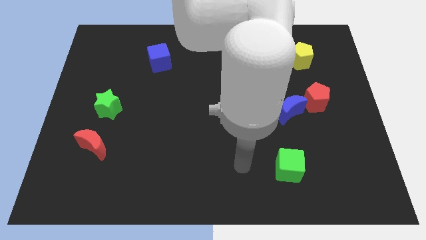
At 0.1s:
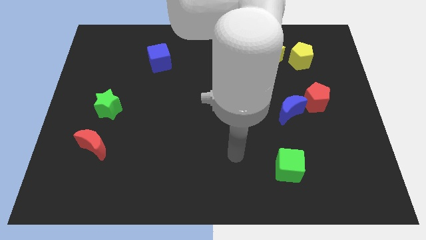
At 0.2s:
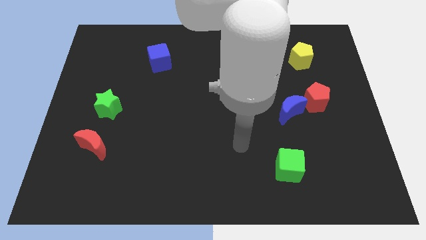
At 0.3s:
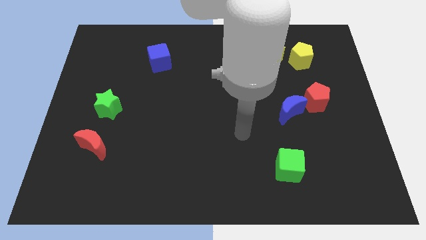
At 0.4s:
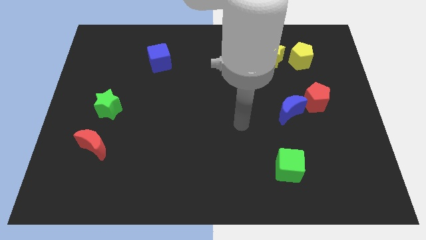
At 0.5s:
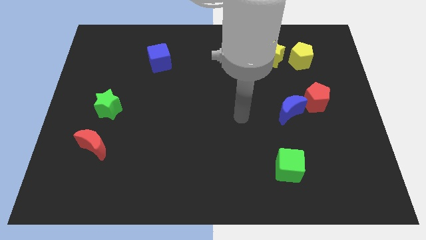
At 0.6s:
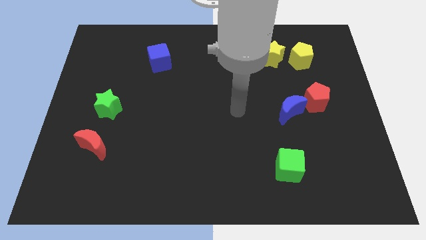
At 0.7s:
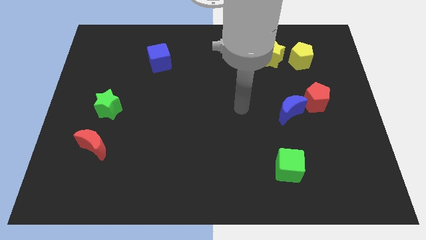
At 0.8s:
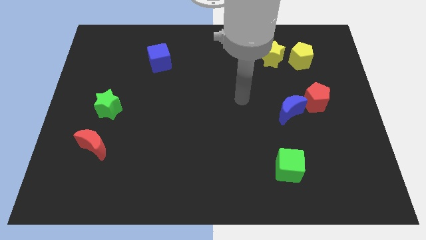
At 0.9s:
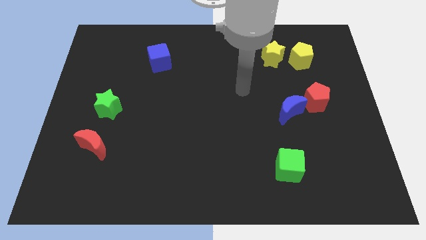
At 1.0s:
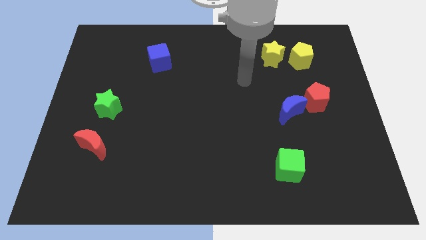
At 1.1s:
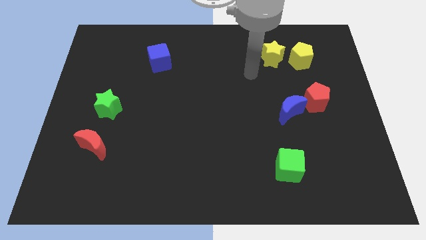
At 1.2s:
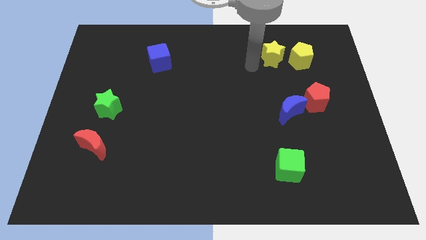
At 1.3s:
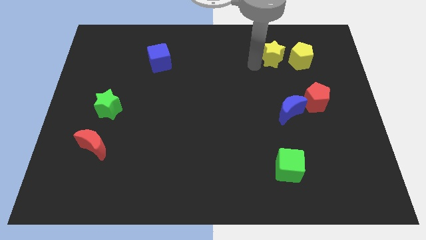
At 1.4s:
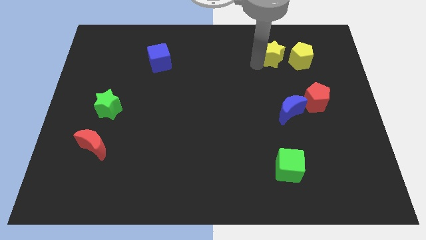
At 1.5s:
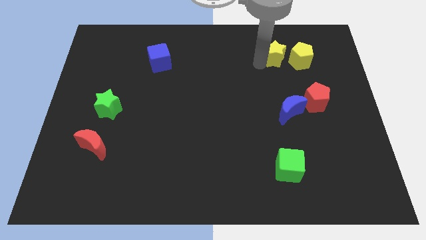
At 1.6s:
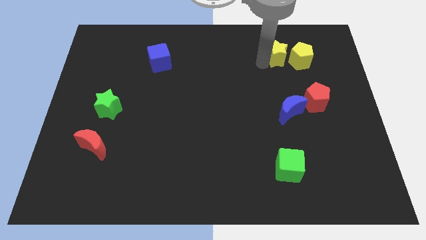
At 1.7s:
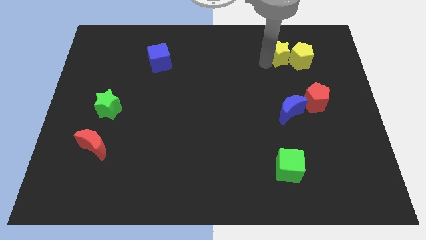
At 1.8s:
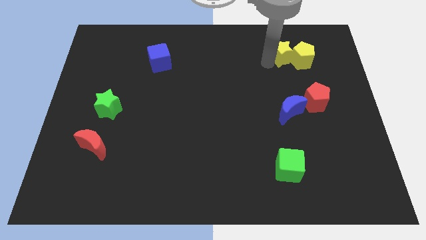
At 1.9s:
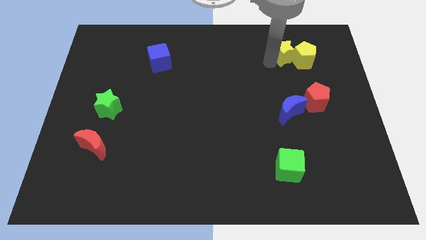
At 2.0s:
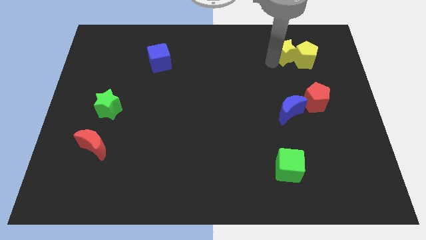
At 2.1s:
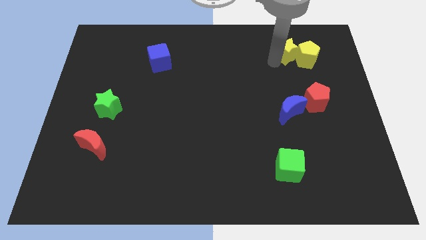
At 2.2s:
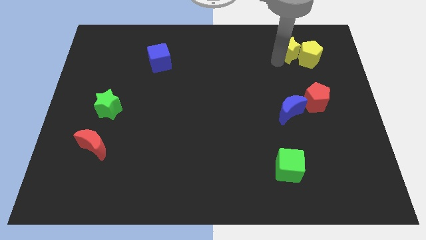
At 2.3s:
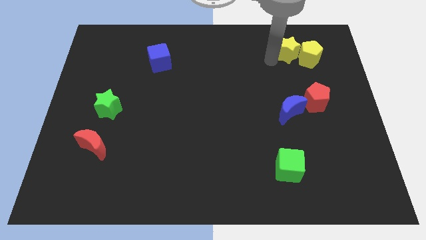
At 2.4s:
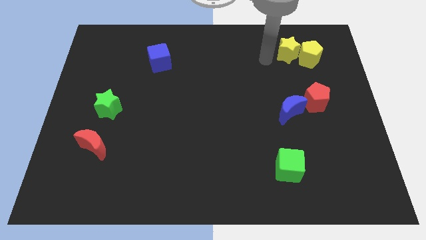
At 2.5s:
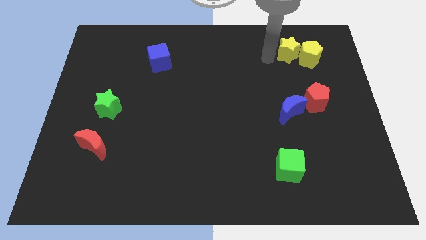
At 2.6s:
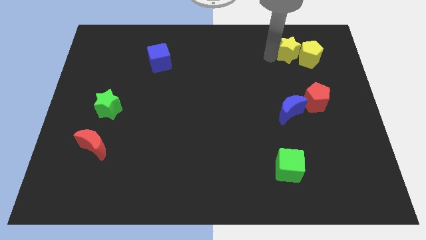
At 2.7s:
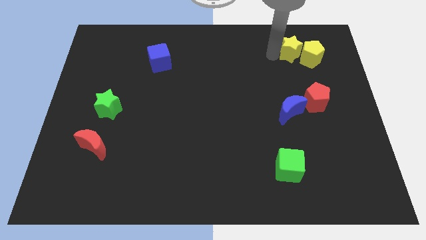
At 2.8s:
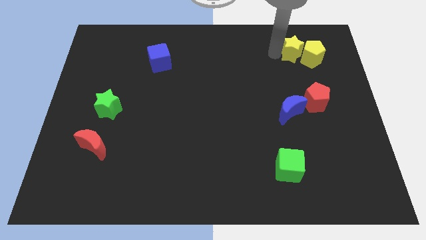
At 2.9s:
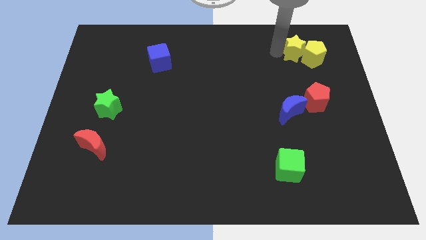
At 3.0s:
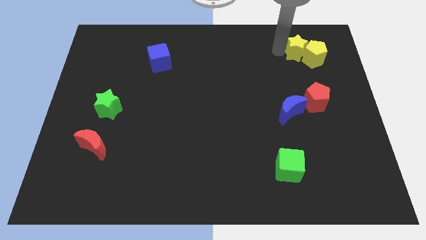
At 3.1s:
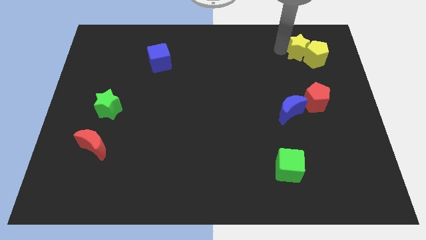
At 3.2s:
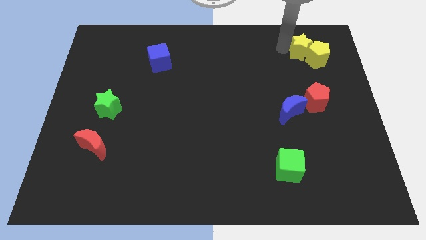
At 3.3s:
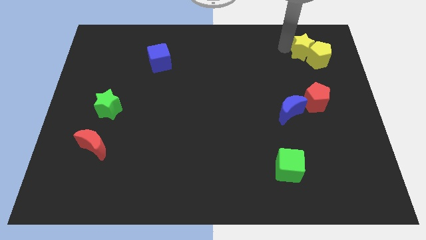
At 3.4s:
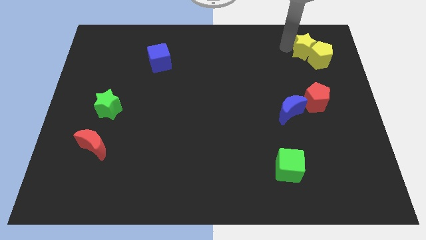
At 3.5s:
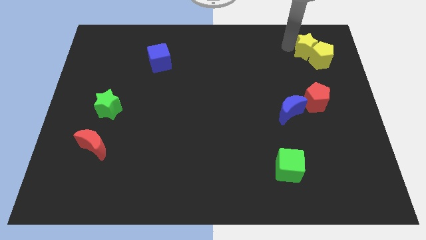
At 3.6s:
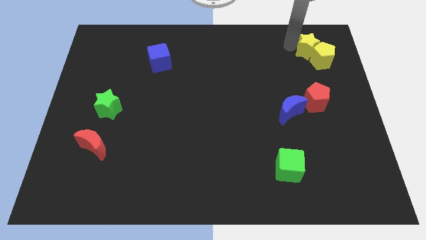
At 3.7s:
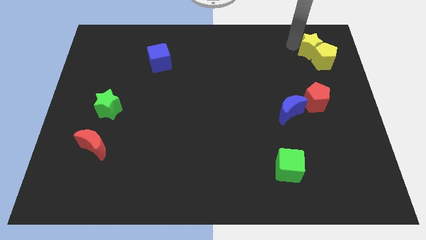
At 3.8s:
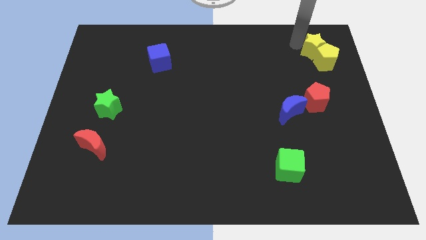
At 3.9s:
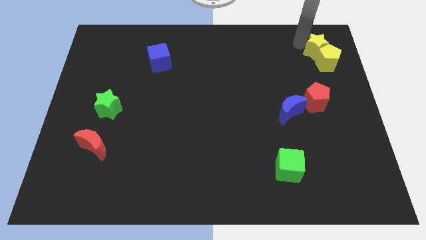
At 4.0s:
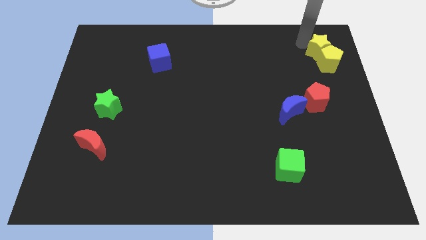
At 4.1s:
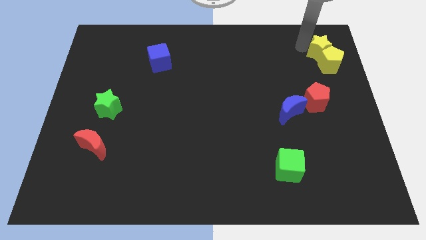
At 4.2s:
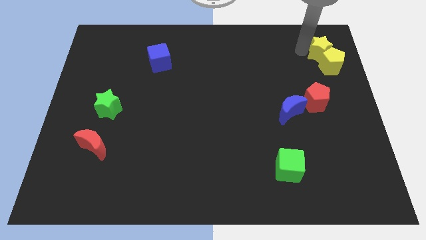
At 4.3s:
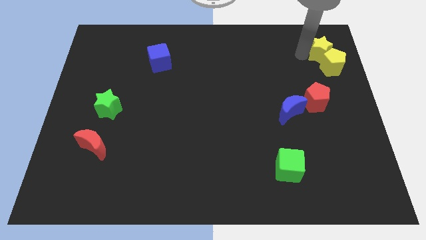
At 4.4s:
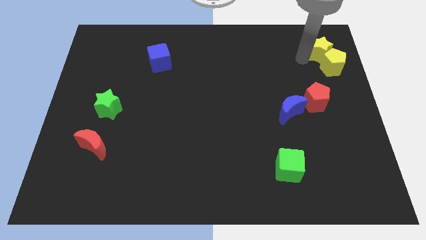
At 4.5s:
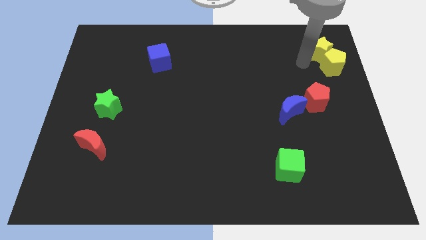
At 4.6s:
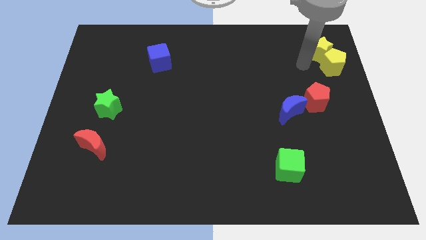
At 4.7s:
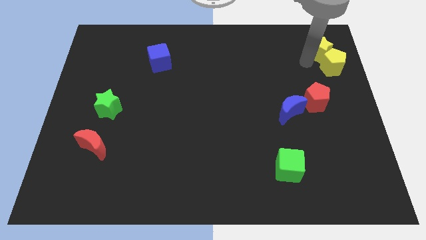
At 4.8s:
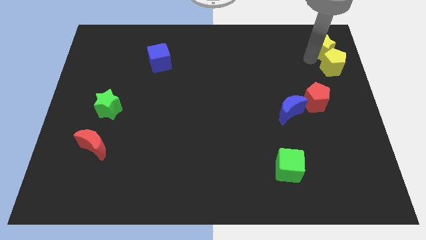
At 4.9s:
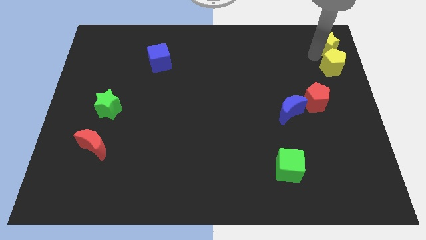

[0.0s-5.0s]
push the yellow star to the top right corner

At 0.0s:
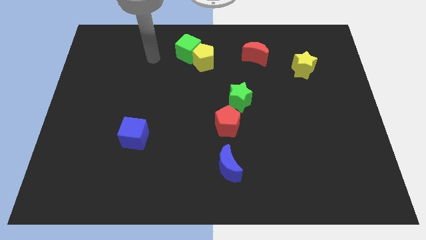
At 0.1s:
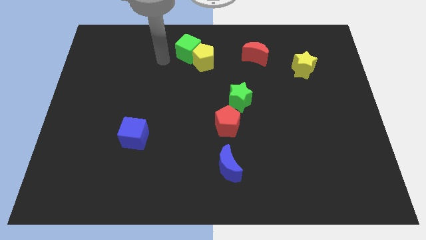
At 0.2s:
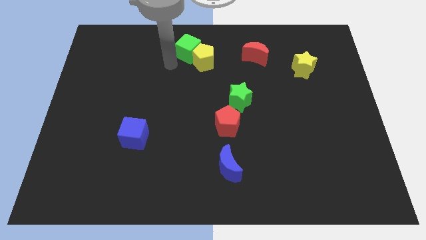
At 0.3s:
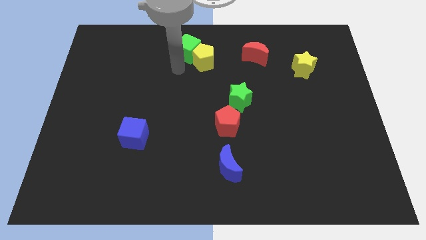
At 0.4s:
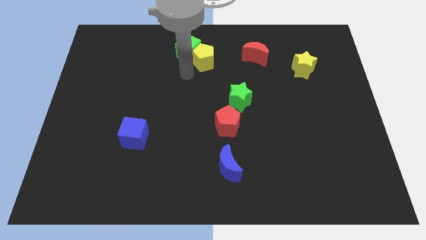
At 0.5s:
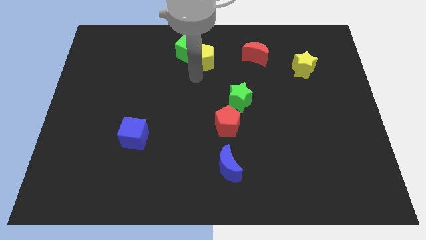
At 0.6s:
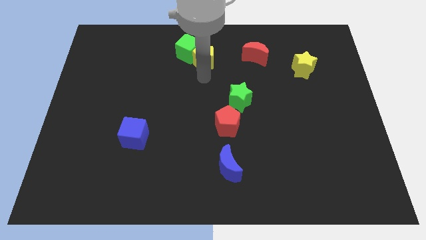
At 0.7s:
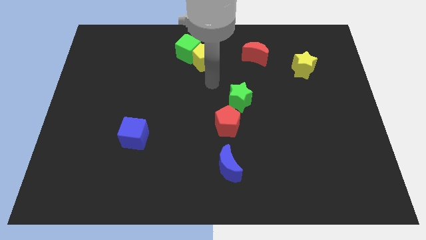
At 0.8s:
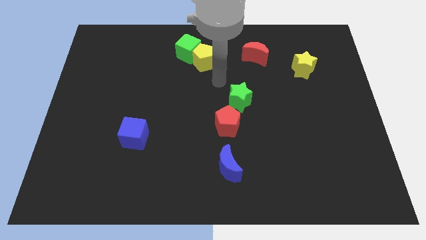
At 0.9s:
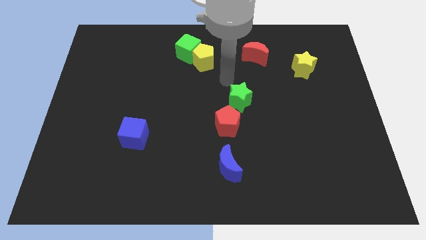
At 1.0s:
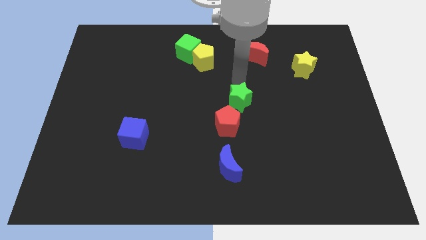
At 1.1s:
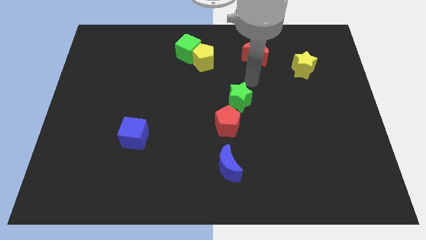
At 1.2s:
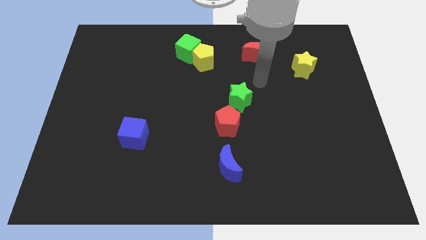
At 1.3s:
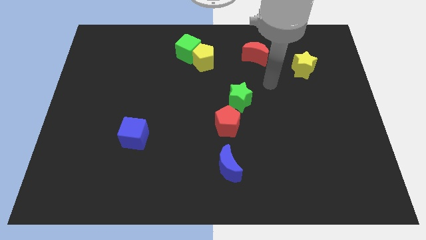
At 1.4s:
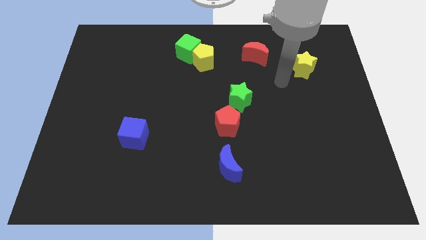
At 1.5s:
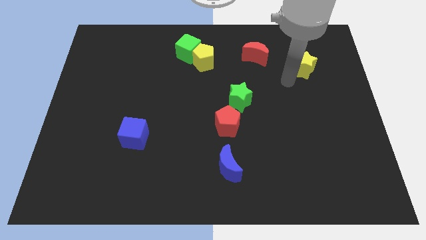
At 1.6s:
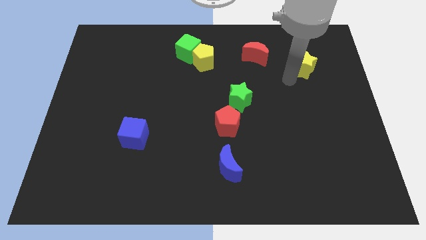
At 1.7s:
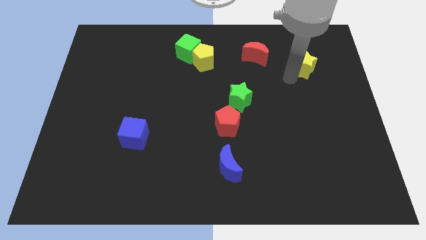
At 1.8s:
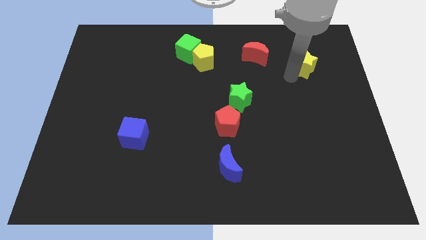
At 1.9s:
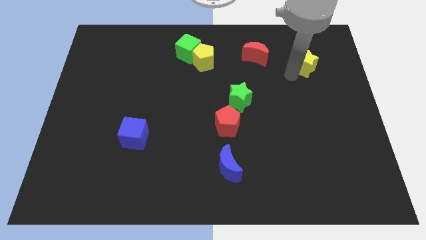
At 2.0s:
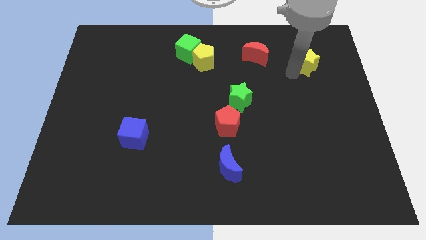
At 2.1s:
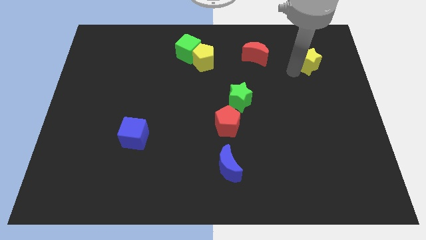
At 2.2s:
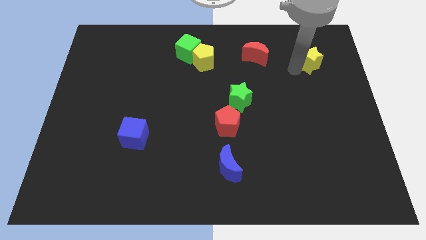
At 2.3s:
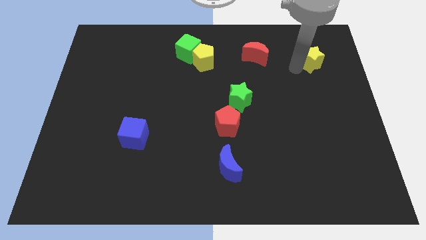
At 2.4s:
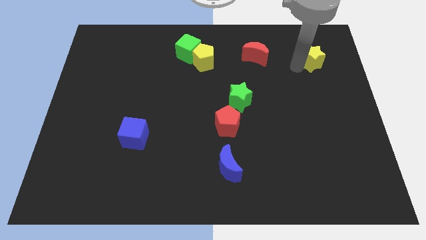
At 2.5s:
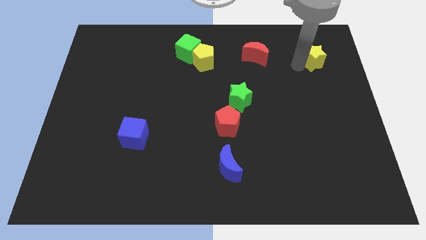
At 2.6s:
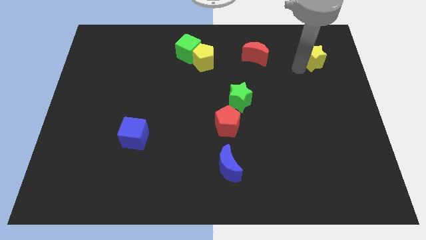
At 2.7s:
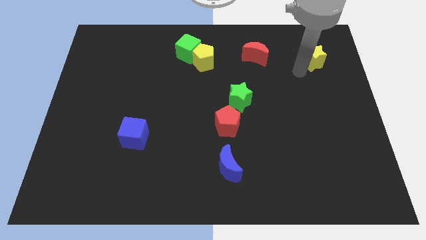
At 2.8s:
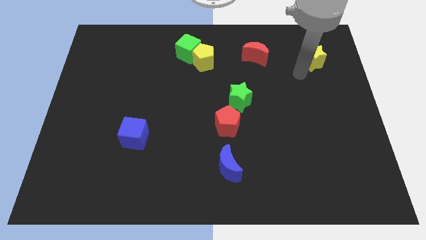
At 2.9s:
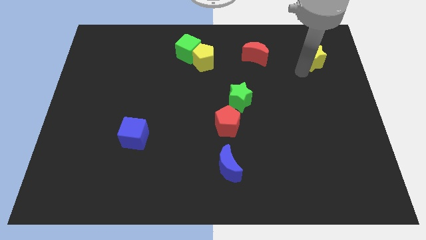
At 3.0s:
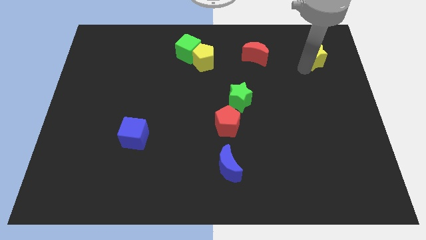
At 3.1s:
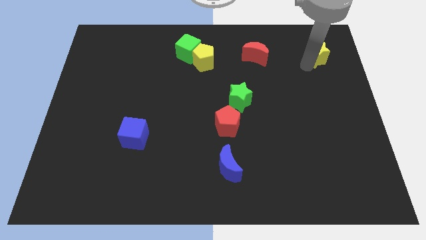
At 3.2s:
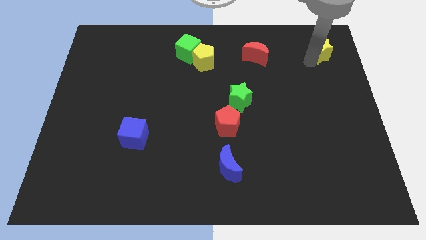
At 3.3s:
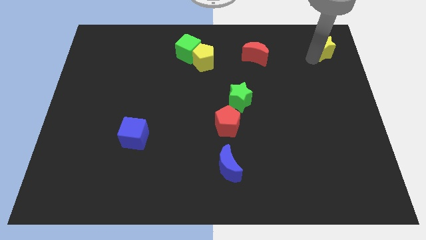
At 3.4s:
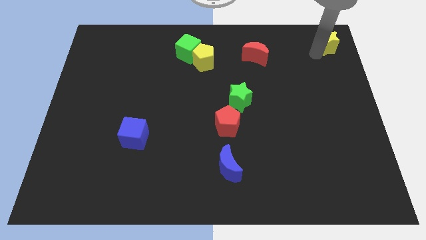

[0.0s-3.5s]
put the yellow star to the top right
